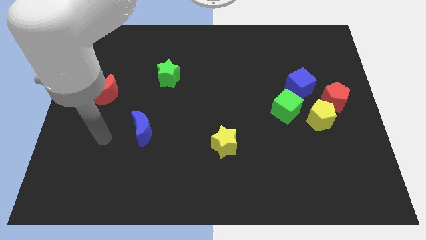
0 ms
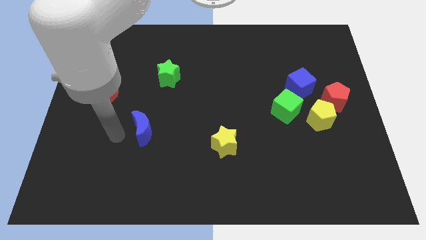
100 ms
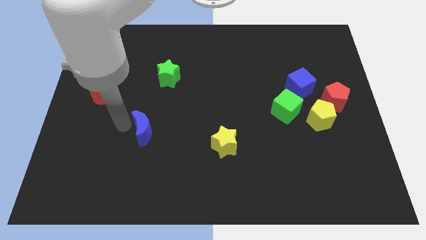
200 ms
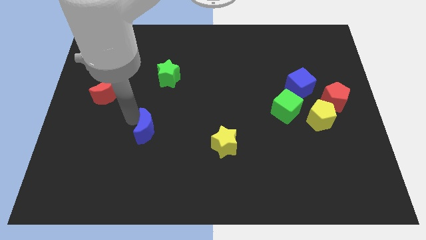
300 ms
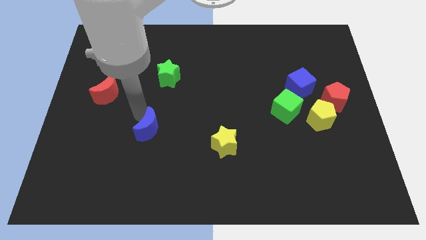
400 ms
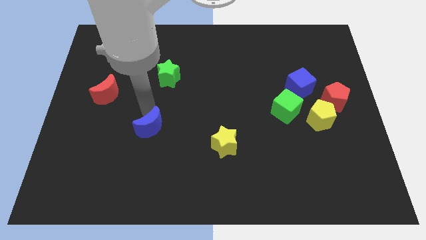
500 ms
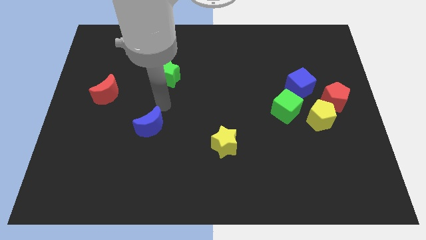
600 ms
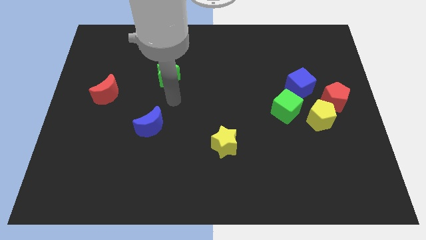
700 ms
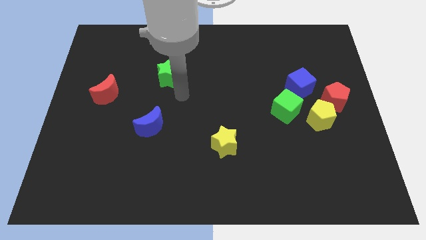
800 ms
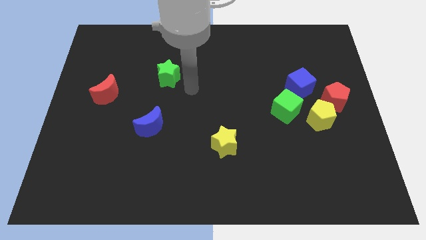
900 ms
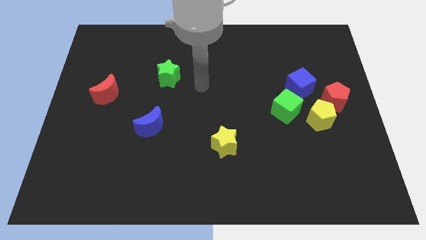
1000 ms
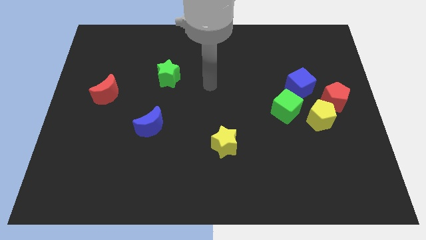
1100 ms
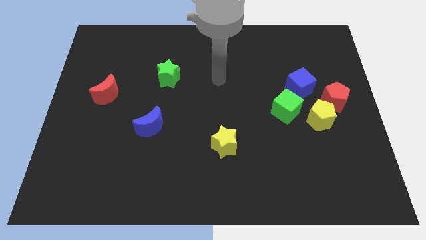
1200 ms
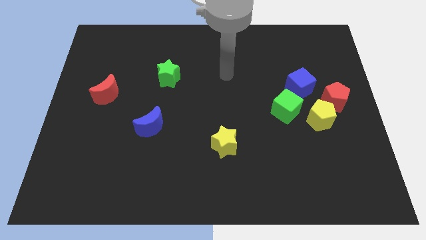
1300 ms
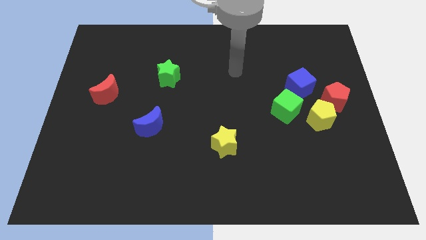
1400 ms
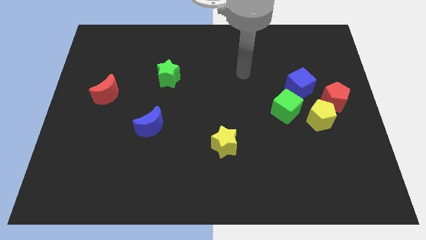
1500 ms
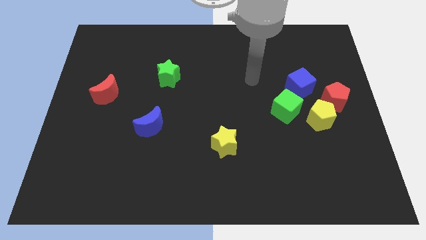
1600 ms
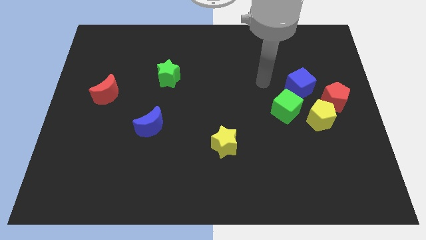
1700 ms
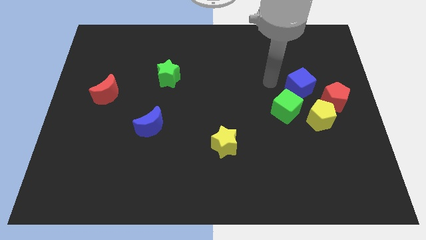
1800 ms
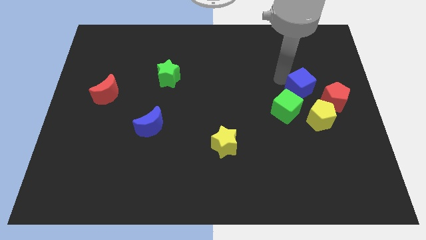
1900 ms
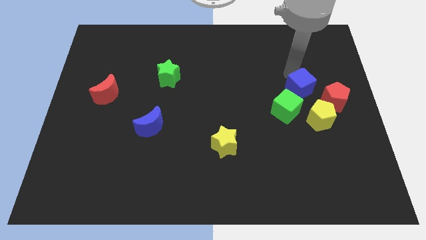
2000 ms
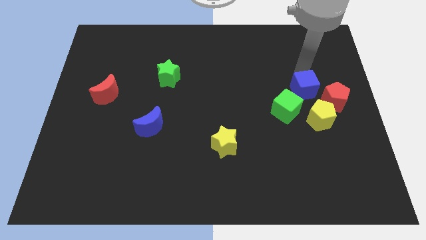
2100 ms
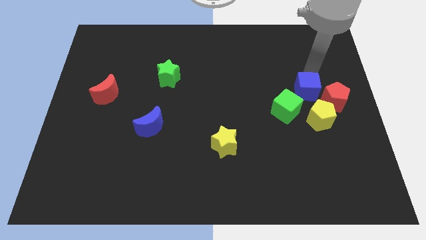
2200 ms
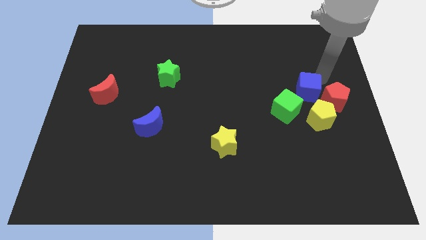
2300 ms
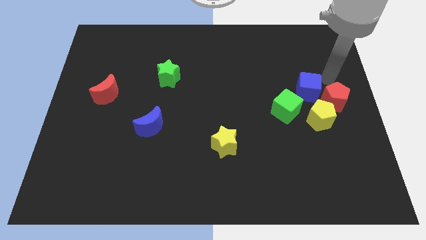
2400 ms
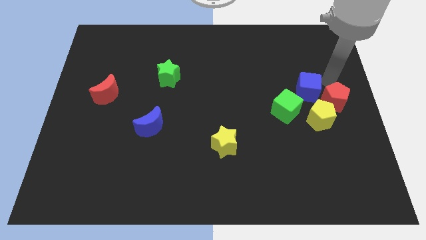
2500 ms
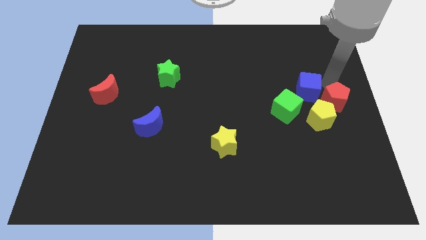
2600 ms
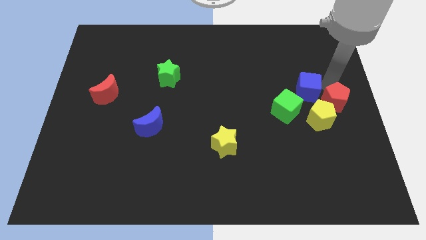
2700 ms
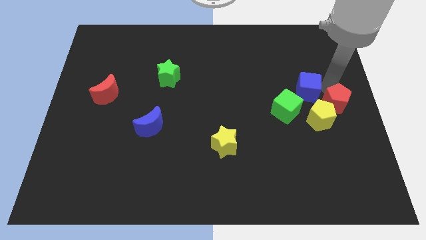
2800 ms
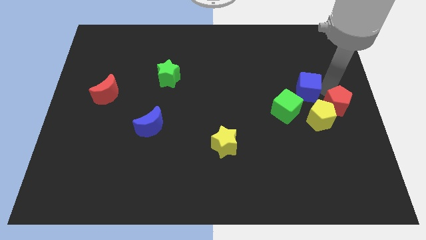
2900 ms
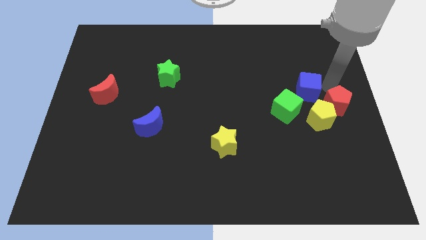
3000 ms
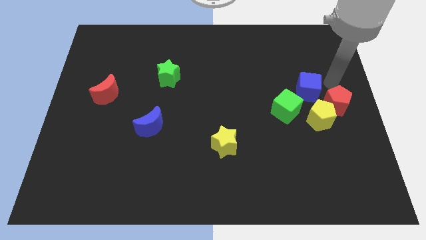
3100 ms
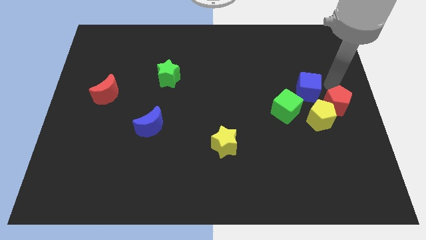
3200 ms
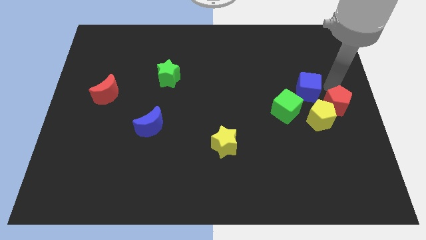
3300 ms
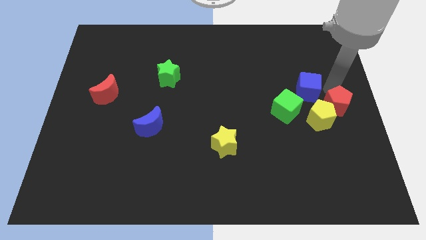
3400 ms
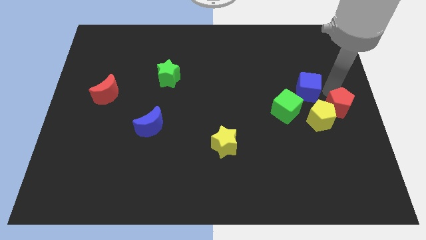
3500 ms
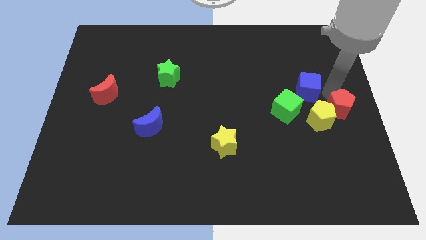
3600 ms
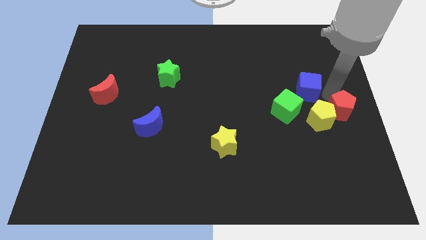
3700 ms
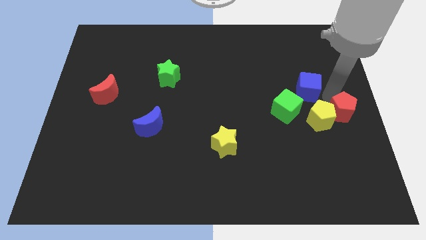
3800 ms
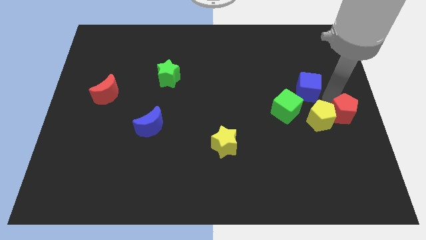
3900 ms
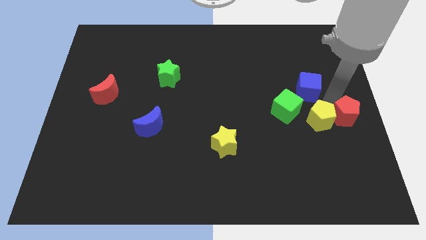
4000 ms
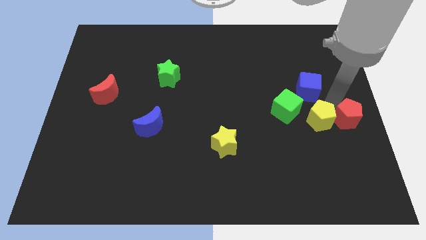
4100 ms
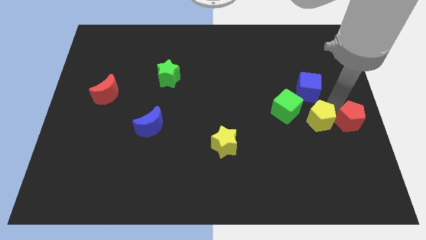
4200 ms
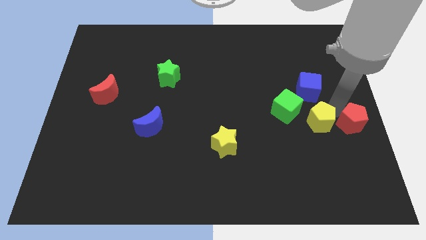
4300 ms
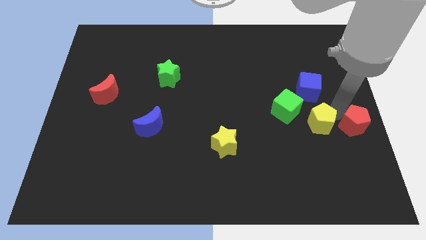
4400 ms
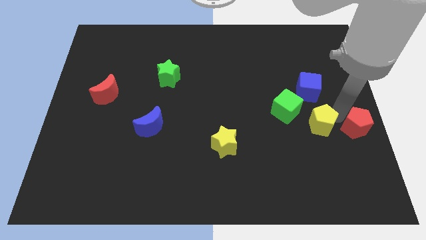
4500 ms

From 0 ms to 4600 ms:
slightly slide the red pentagon down

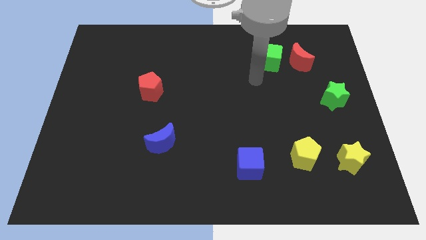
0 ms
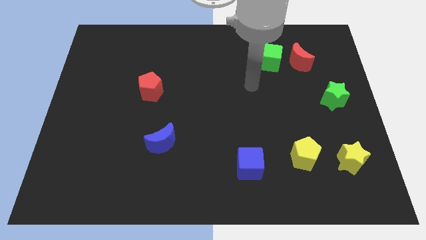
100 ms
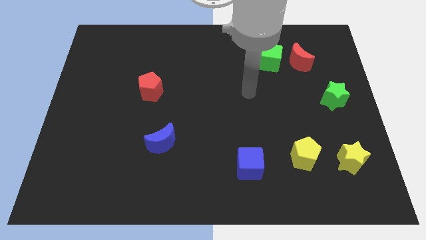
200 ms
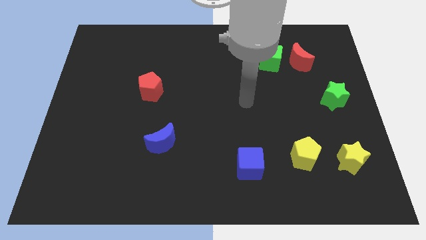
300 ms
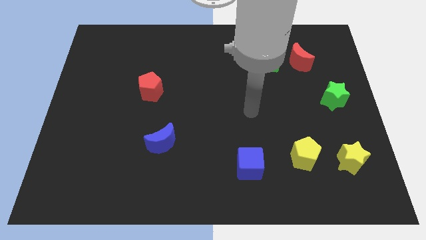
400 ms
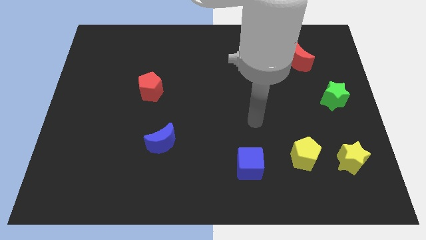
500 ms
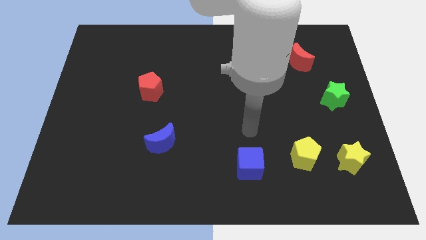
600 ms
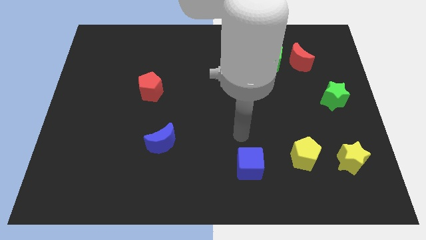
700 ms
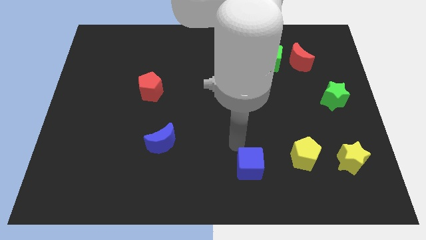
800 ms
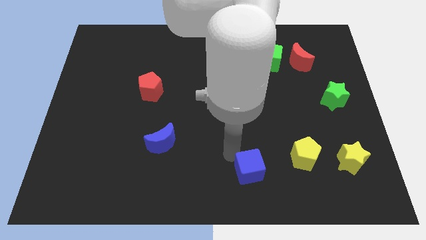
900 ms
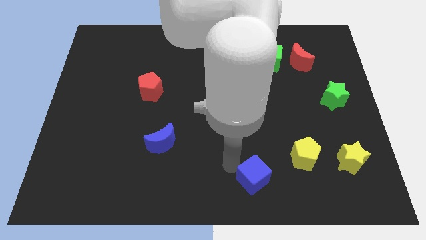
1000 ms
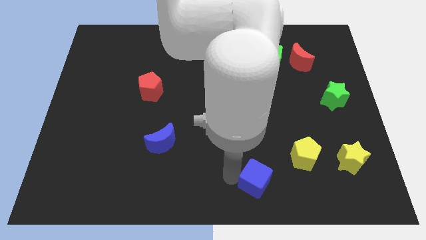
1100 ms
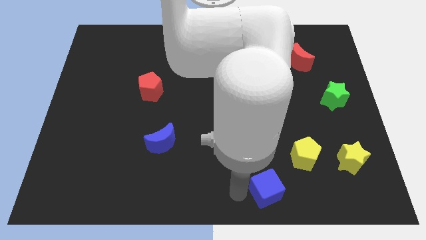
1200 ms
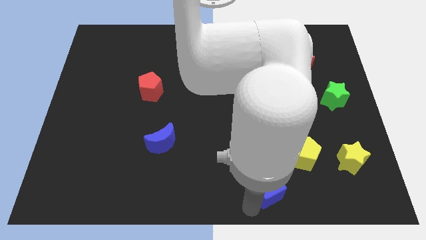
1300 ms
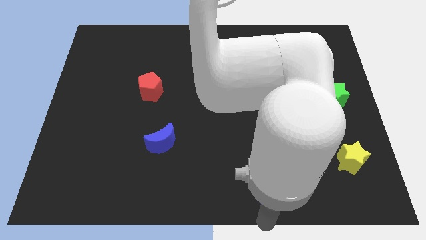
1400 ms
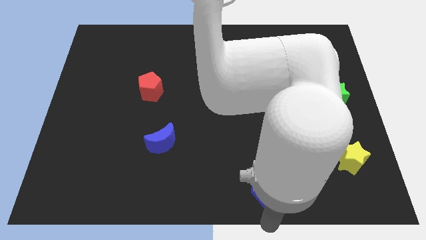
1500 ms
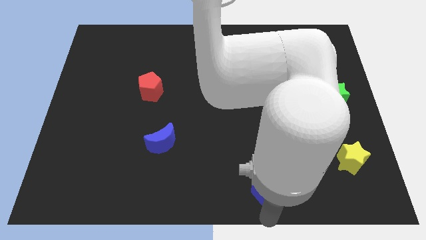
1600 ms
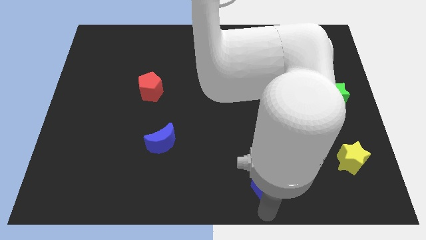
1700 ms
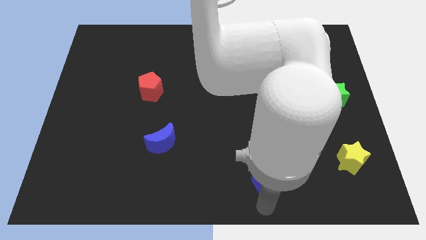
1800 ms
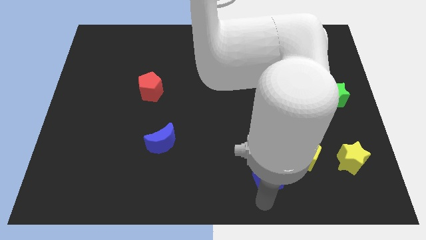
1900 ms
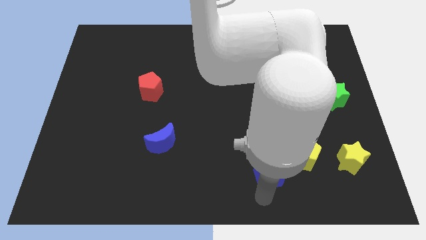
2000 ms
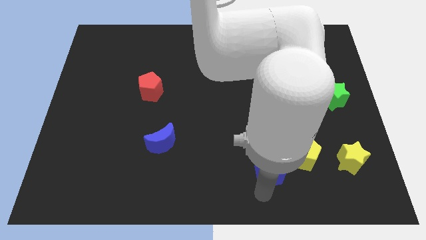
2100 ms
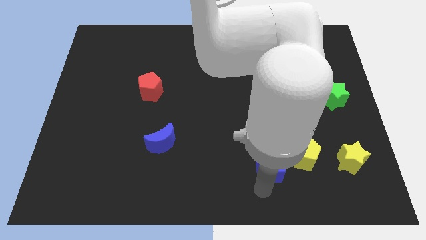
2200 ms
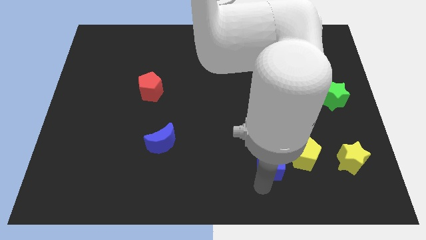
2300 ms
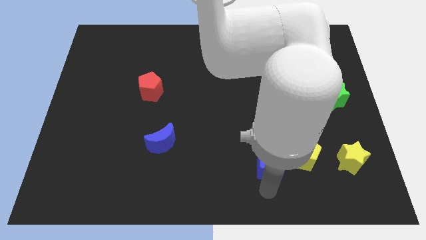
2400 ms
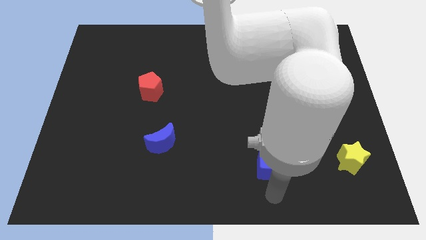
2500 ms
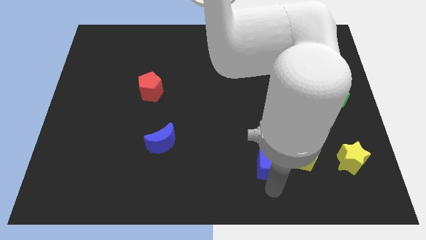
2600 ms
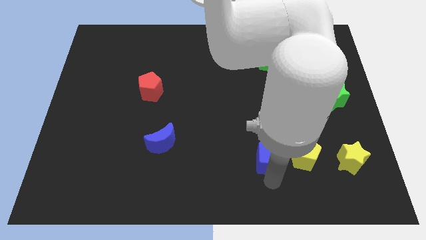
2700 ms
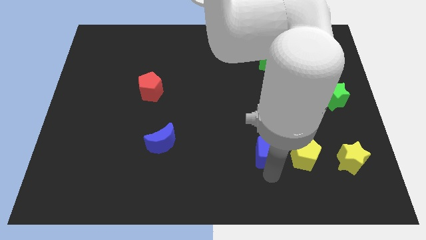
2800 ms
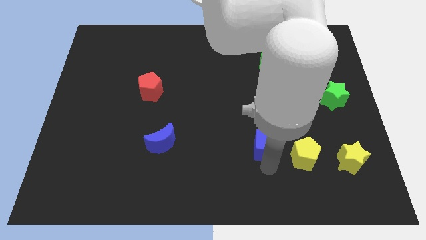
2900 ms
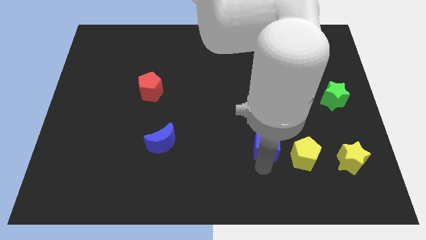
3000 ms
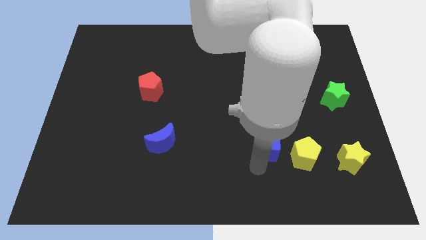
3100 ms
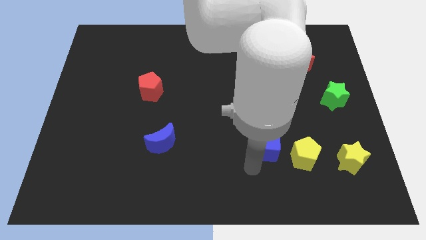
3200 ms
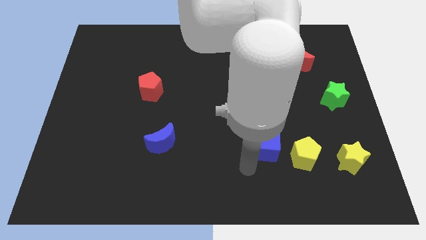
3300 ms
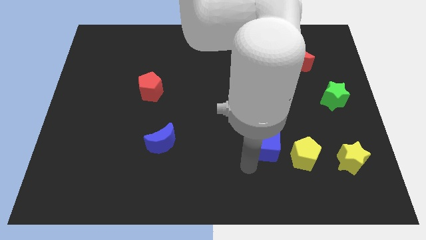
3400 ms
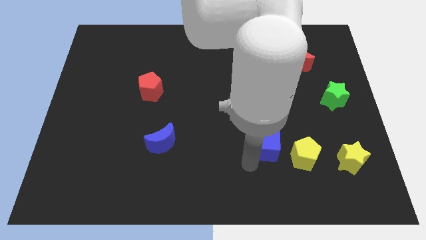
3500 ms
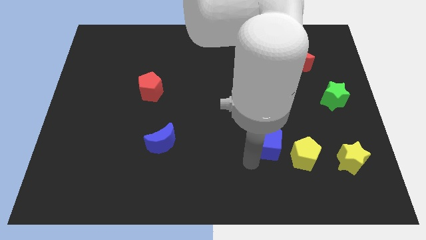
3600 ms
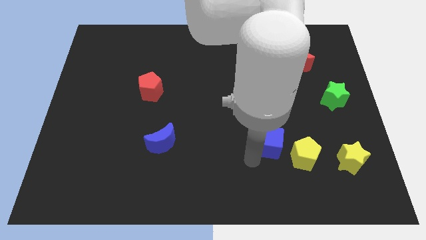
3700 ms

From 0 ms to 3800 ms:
push the blue cube a bit diagonally up and to the right
